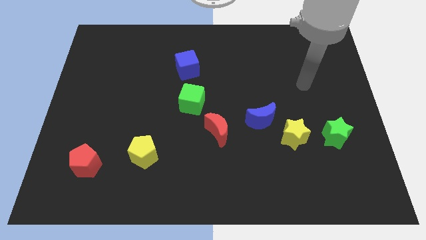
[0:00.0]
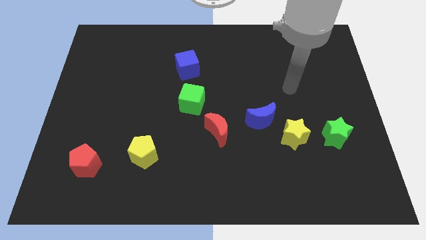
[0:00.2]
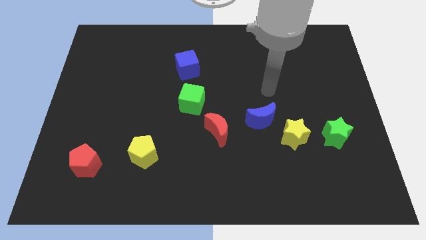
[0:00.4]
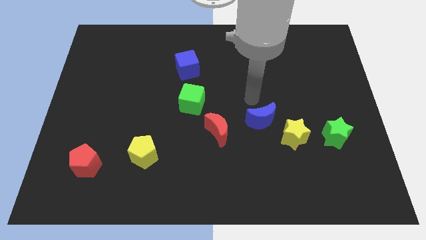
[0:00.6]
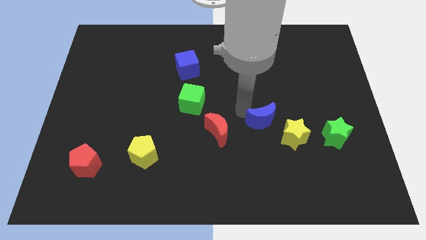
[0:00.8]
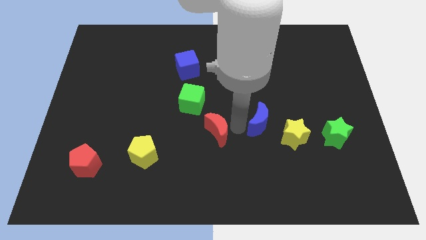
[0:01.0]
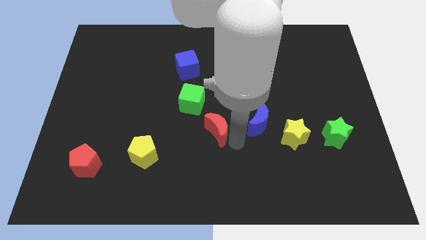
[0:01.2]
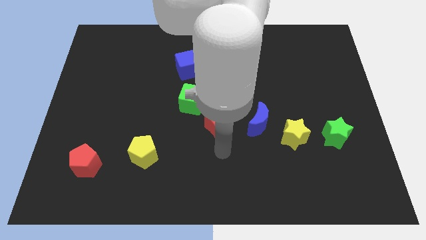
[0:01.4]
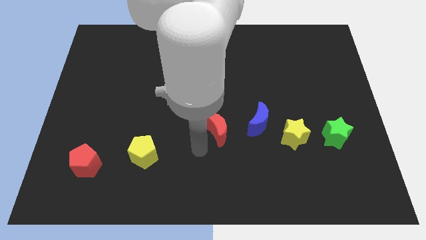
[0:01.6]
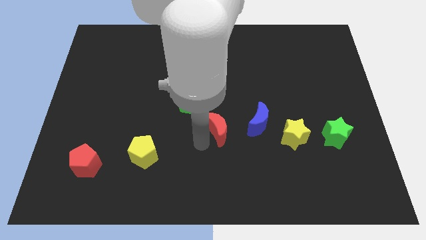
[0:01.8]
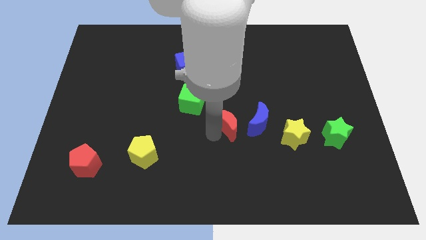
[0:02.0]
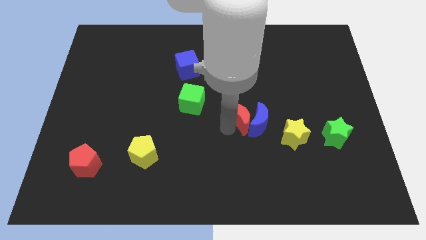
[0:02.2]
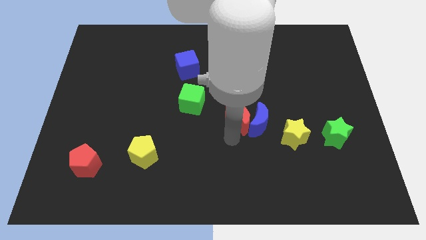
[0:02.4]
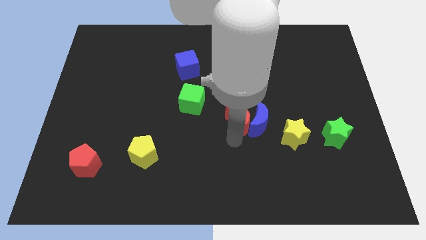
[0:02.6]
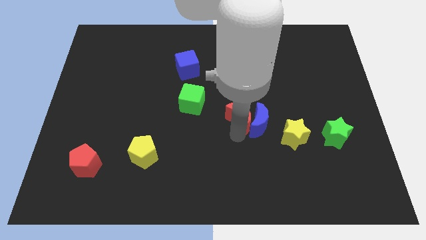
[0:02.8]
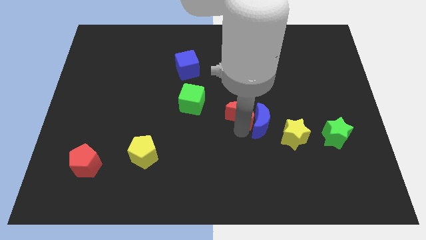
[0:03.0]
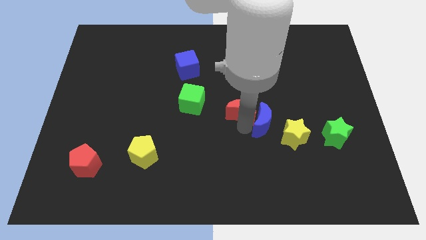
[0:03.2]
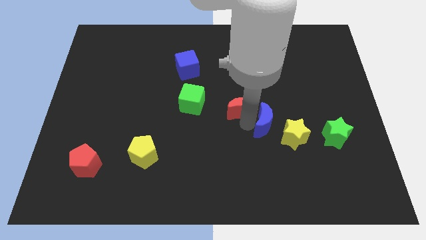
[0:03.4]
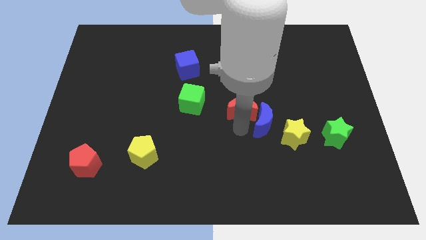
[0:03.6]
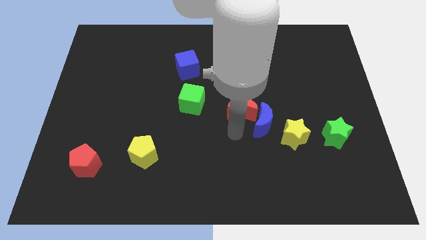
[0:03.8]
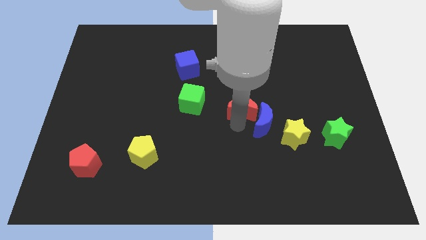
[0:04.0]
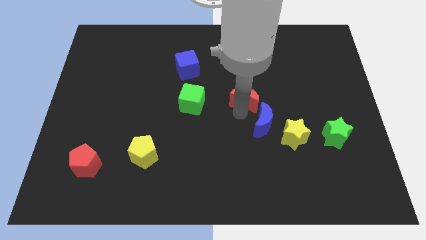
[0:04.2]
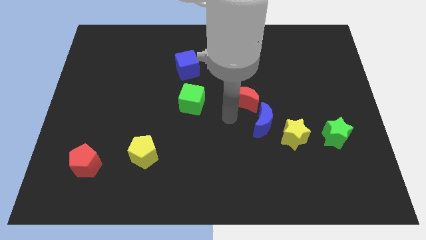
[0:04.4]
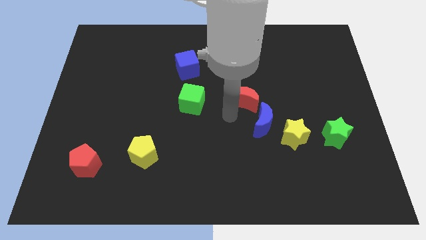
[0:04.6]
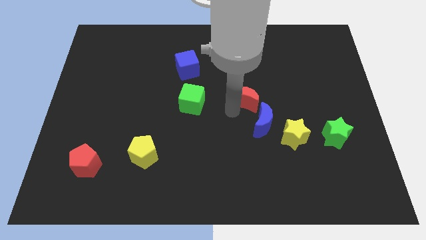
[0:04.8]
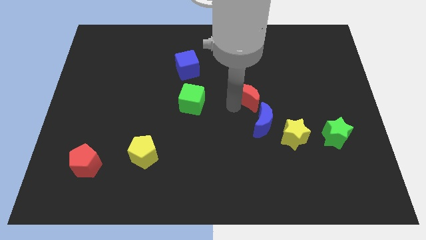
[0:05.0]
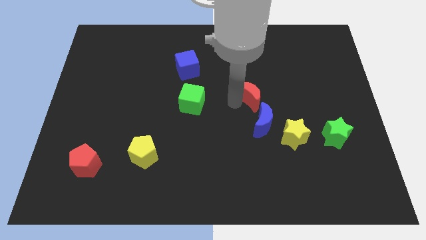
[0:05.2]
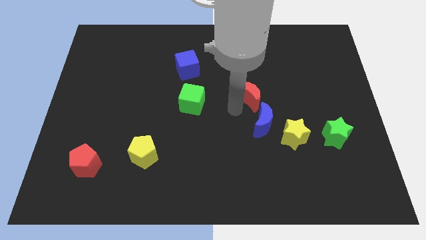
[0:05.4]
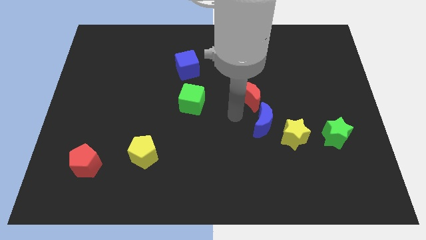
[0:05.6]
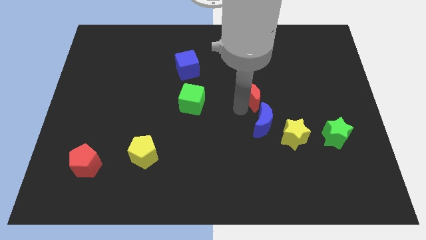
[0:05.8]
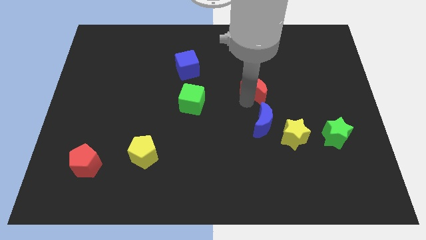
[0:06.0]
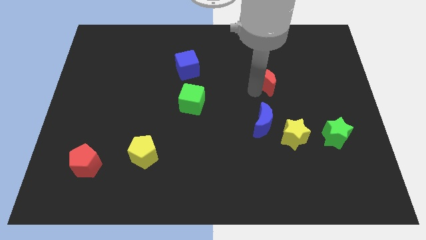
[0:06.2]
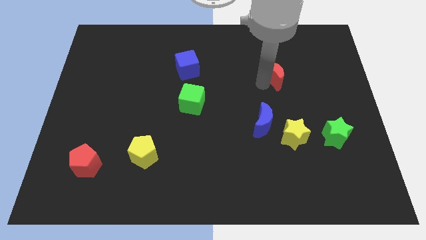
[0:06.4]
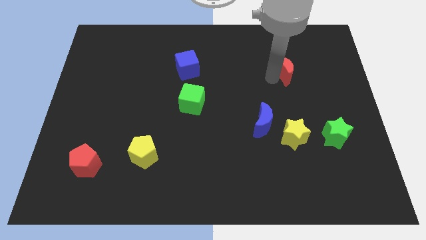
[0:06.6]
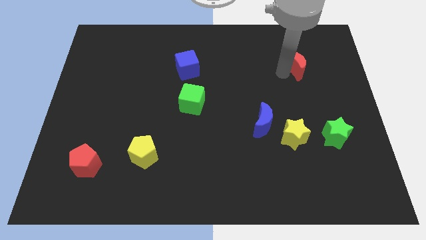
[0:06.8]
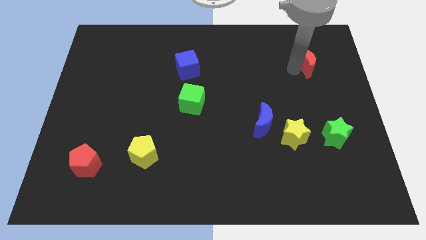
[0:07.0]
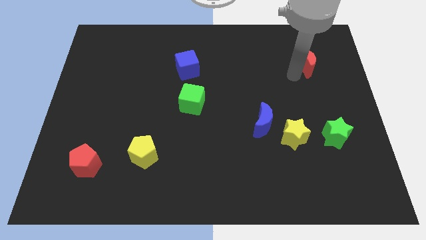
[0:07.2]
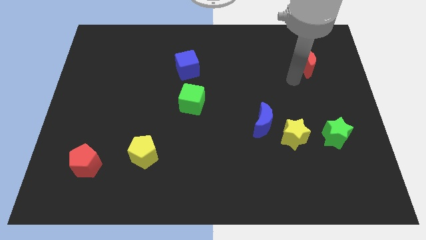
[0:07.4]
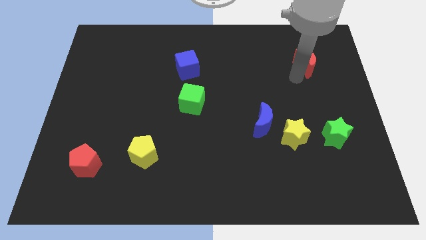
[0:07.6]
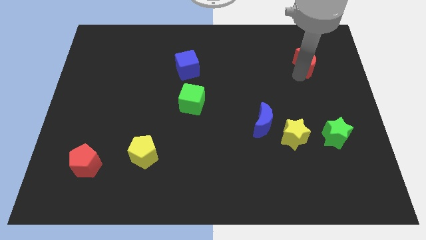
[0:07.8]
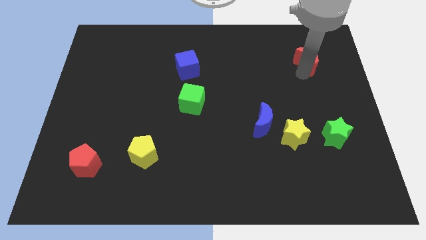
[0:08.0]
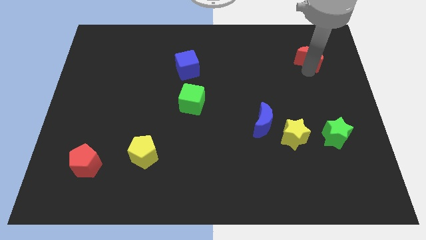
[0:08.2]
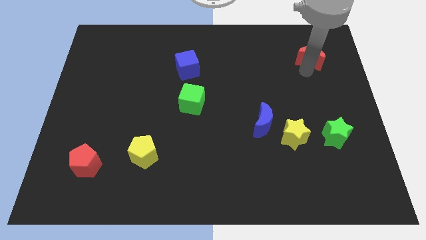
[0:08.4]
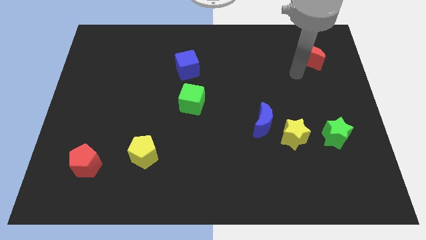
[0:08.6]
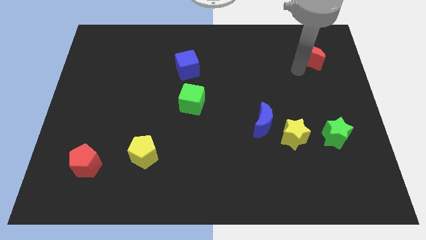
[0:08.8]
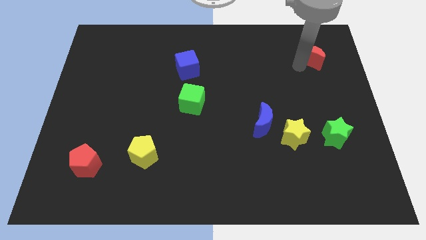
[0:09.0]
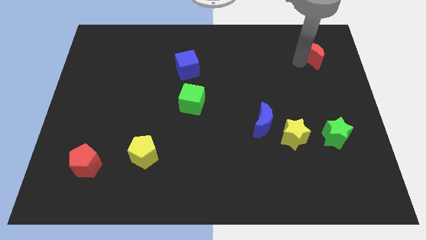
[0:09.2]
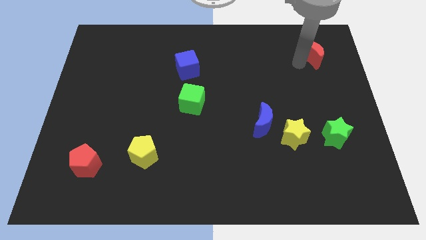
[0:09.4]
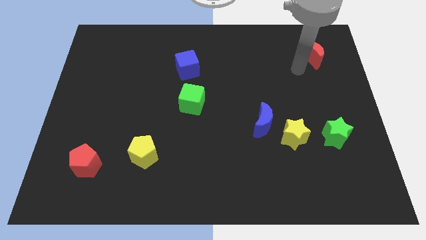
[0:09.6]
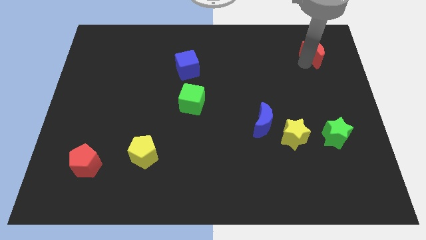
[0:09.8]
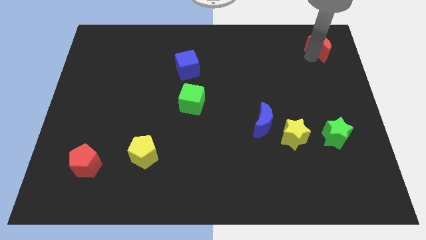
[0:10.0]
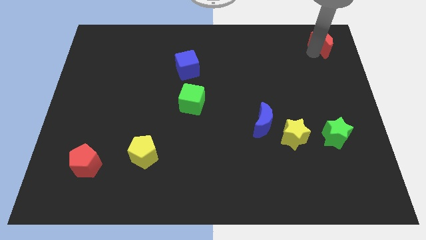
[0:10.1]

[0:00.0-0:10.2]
move the red moon to the upper right corner

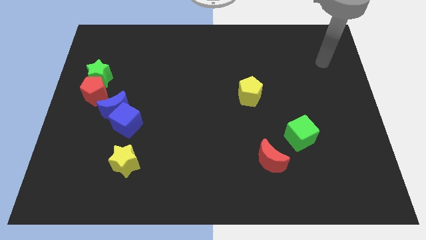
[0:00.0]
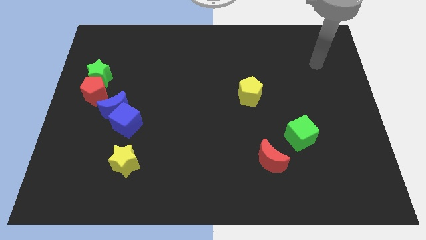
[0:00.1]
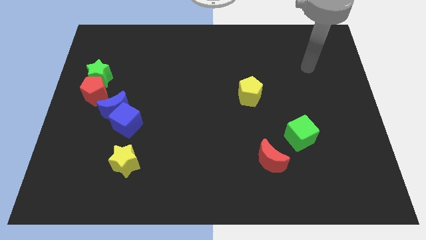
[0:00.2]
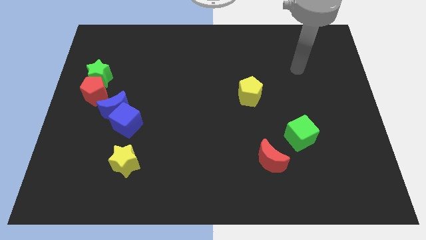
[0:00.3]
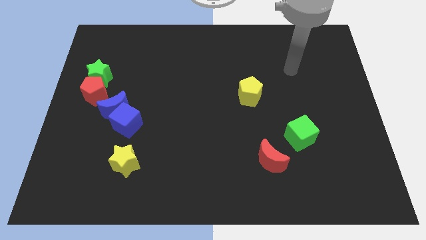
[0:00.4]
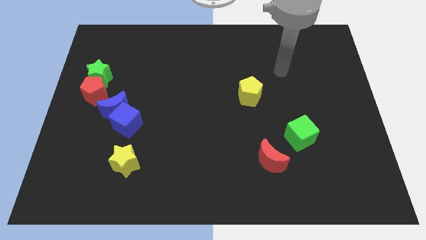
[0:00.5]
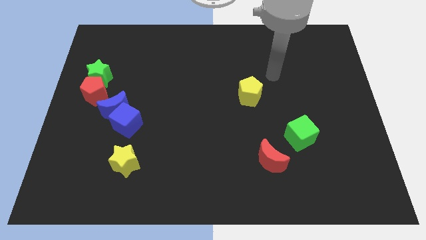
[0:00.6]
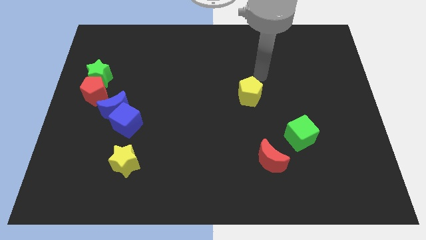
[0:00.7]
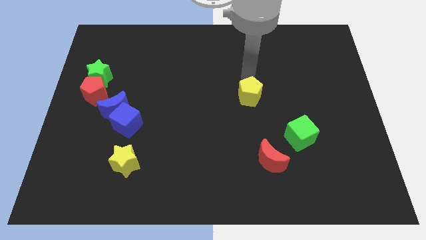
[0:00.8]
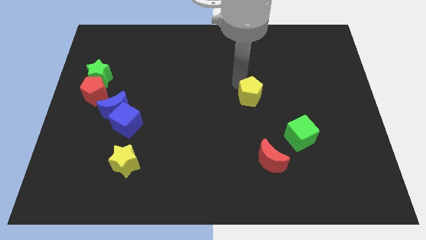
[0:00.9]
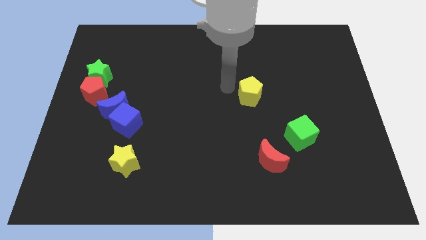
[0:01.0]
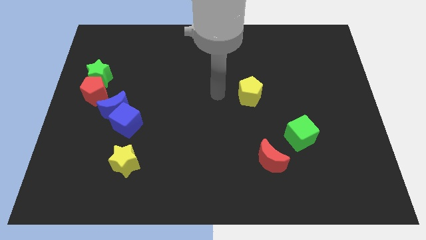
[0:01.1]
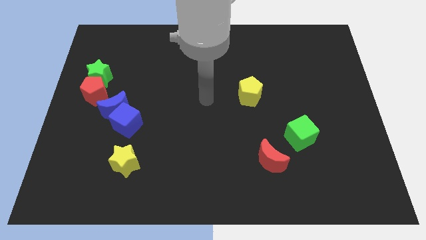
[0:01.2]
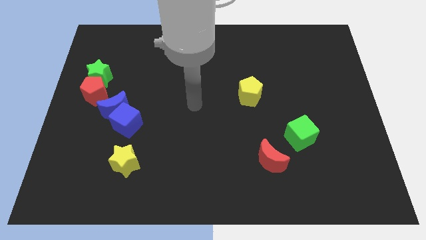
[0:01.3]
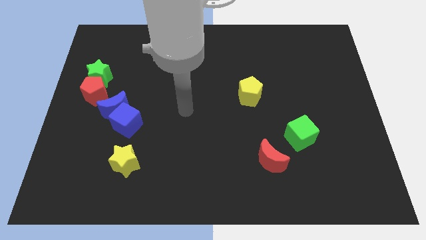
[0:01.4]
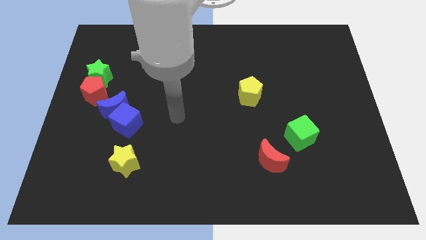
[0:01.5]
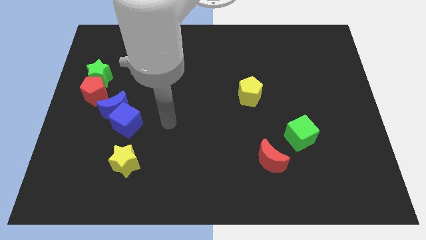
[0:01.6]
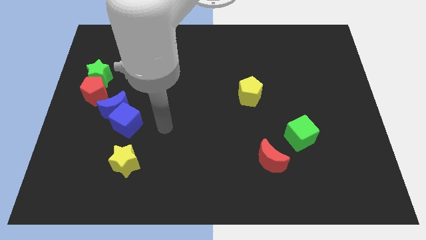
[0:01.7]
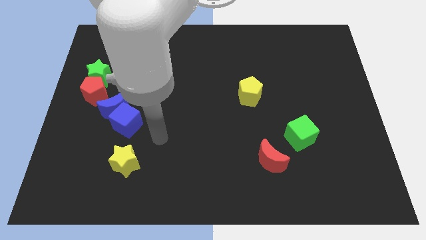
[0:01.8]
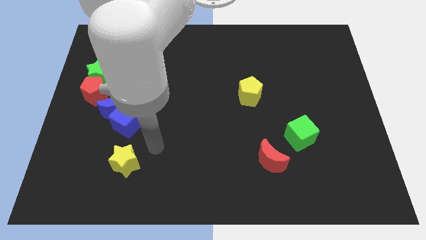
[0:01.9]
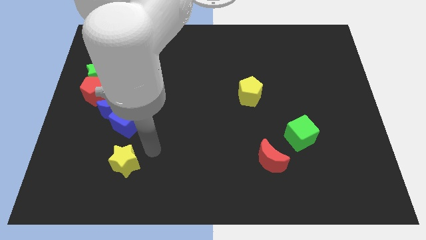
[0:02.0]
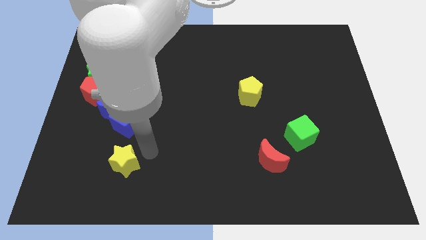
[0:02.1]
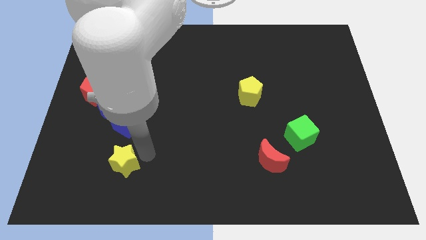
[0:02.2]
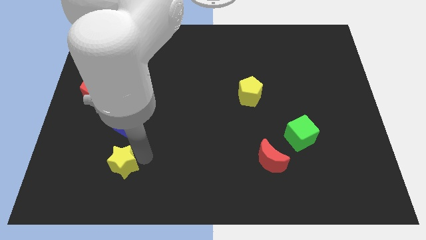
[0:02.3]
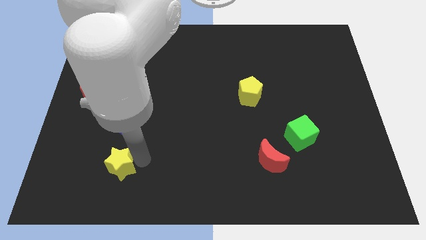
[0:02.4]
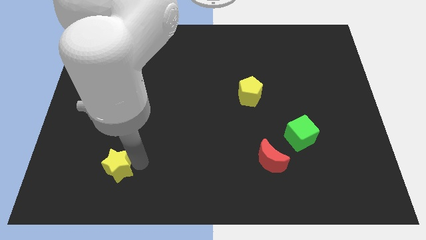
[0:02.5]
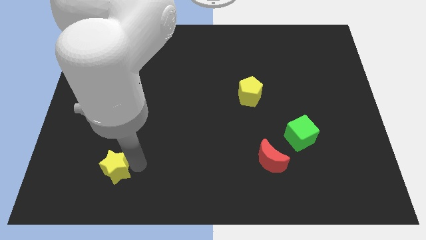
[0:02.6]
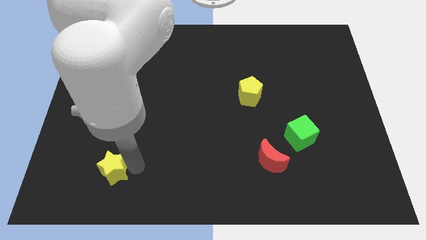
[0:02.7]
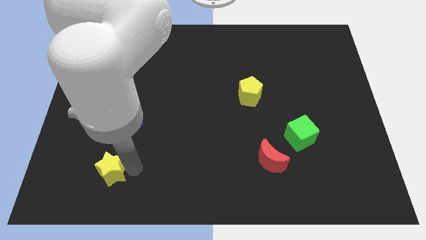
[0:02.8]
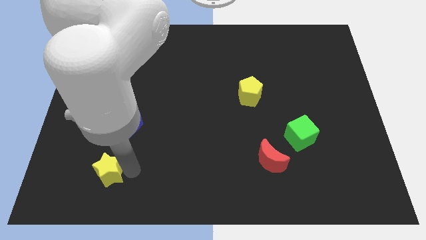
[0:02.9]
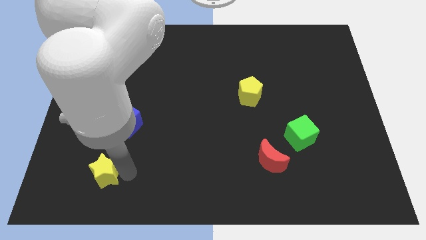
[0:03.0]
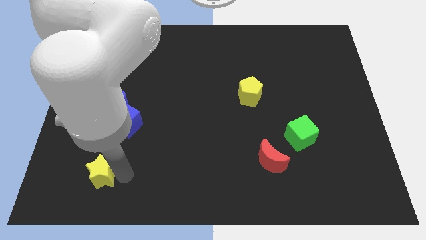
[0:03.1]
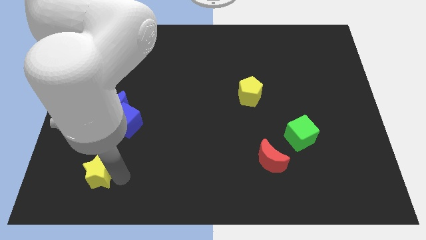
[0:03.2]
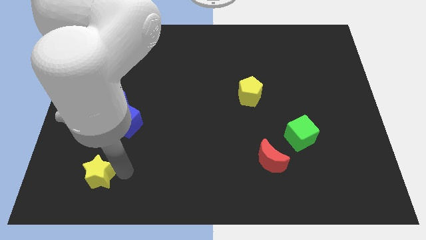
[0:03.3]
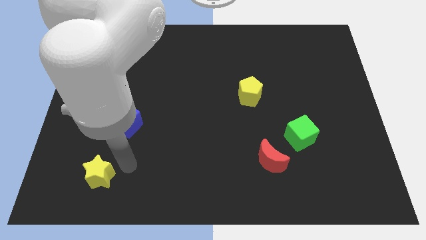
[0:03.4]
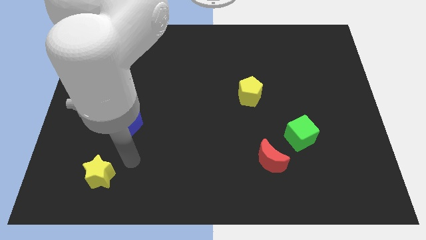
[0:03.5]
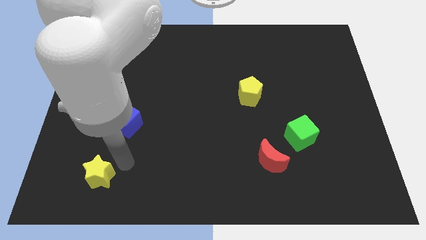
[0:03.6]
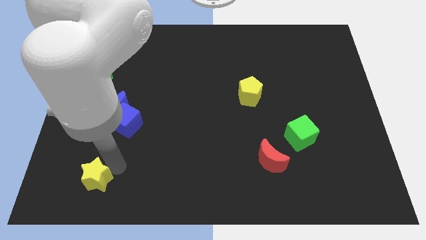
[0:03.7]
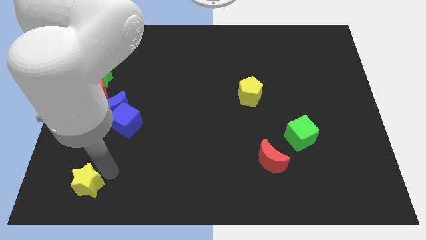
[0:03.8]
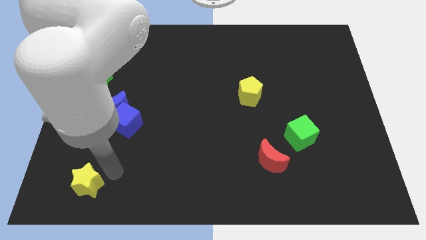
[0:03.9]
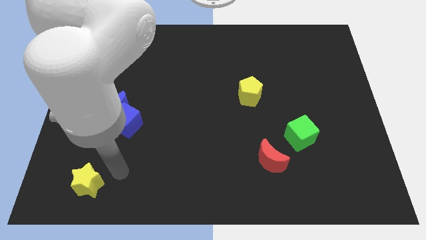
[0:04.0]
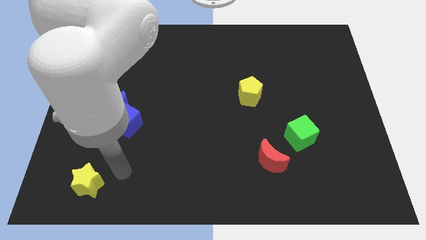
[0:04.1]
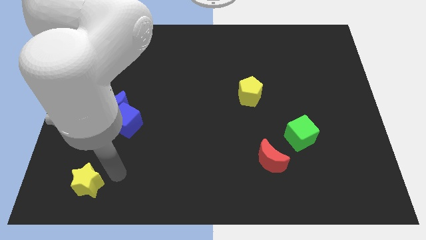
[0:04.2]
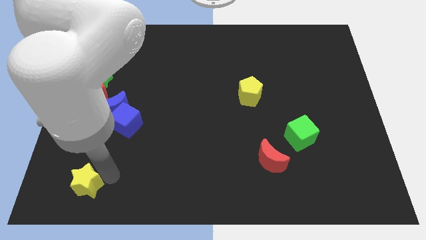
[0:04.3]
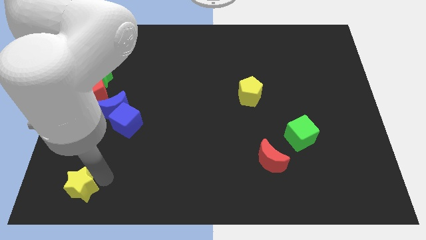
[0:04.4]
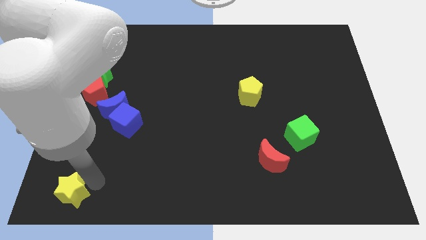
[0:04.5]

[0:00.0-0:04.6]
push the yellow star to the bottom left of the board
